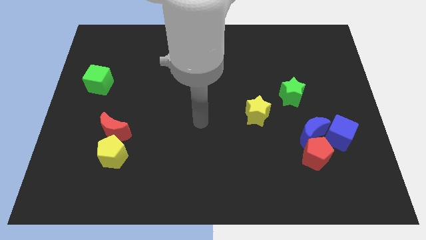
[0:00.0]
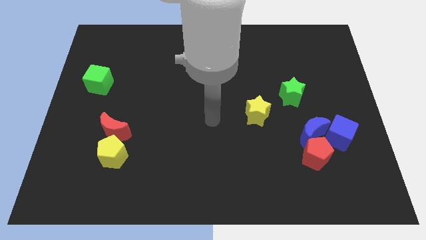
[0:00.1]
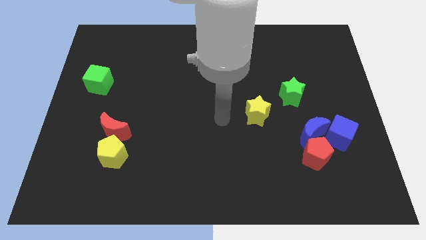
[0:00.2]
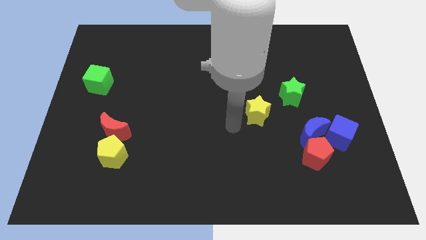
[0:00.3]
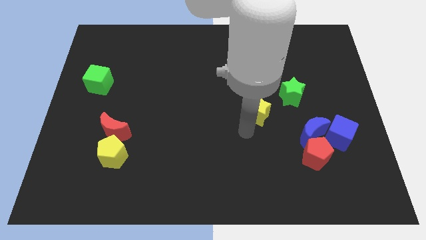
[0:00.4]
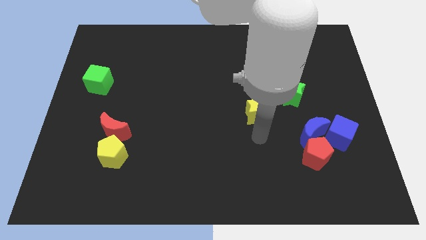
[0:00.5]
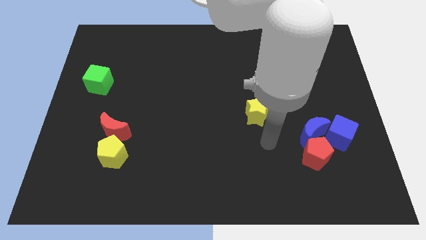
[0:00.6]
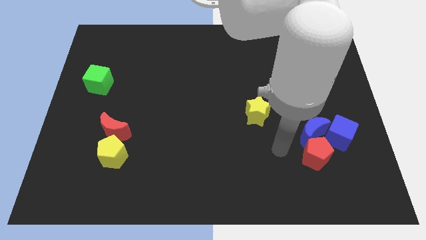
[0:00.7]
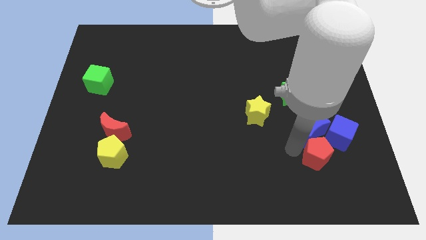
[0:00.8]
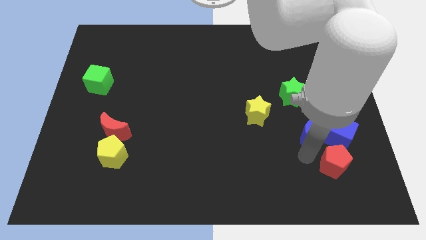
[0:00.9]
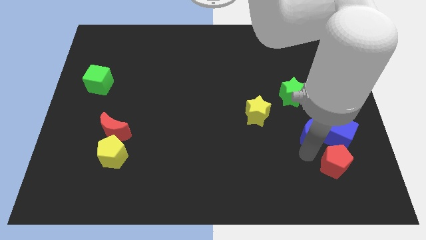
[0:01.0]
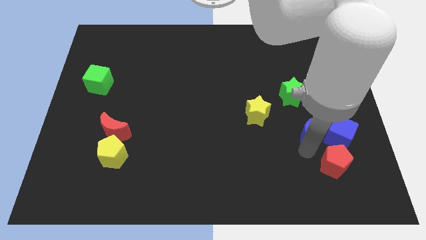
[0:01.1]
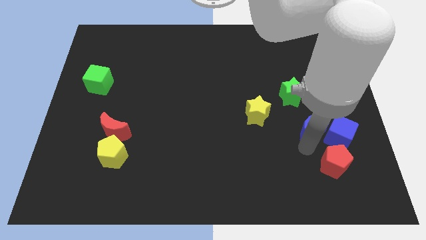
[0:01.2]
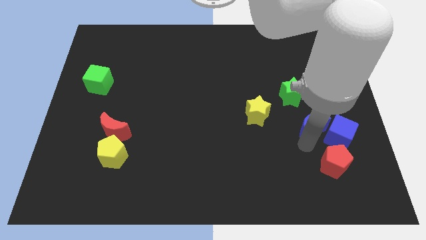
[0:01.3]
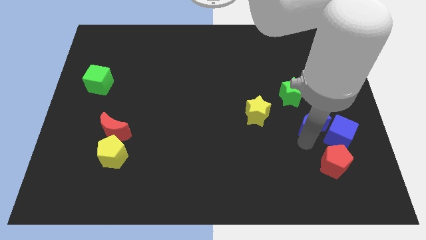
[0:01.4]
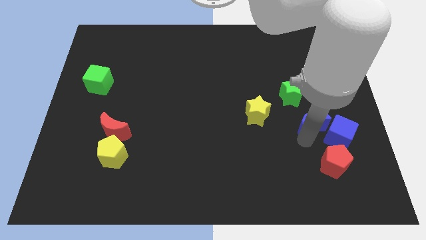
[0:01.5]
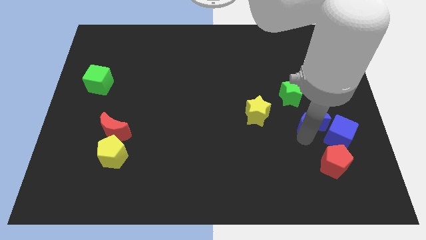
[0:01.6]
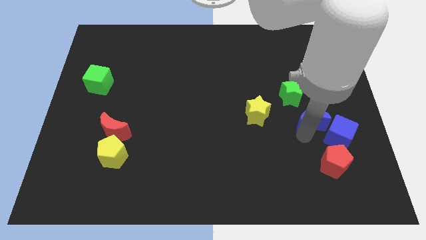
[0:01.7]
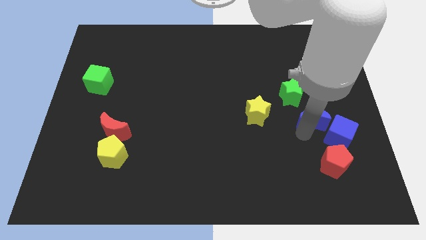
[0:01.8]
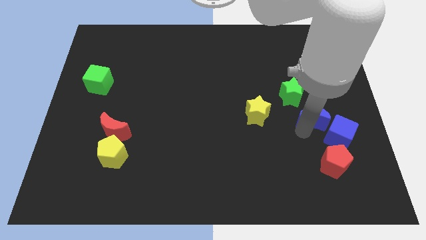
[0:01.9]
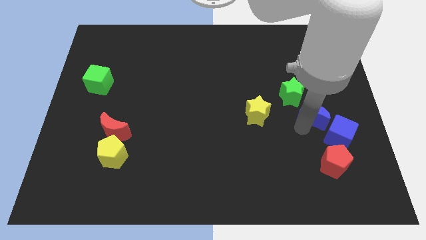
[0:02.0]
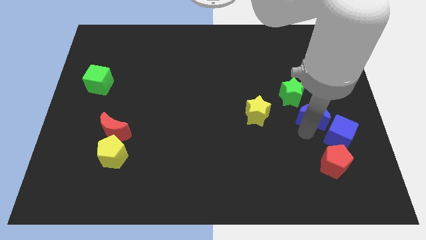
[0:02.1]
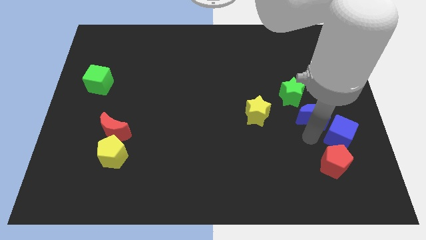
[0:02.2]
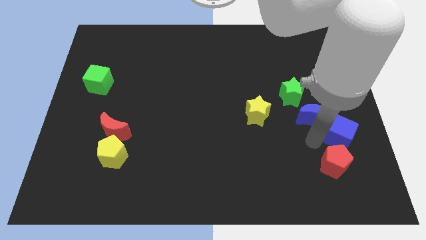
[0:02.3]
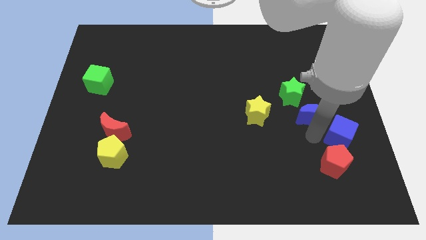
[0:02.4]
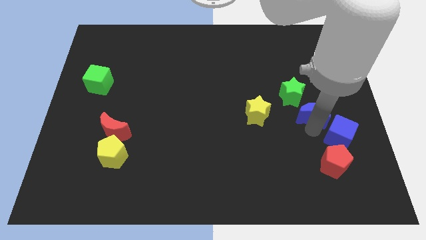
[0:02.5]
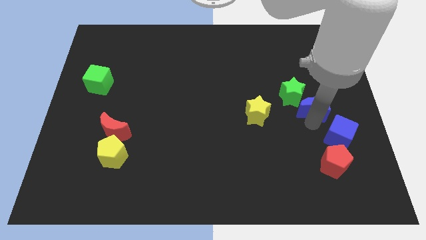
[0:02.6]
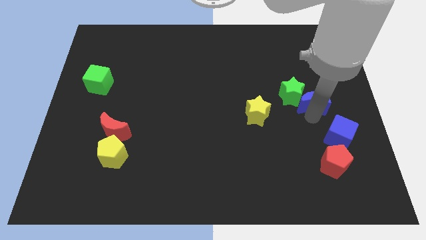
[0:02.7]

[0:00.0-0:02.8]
move the blue moon somewhat up

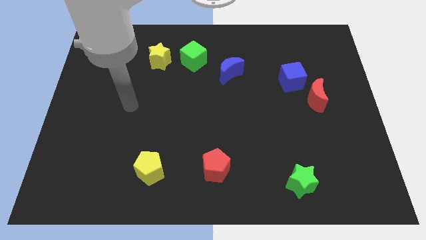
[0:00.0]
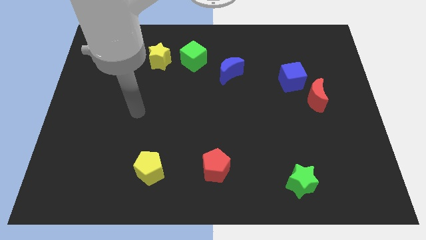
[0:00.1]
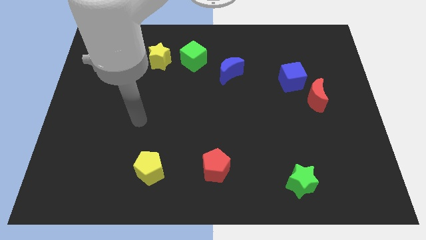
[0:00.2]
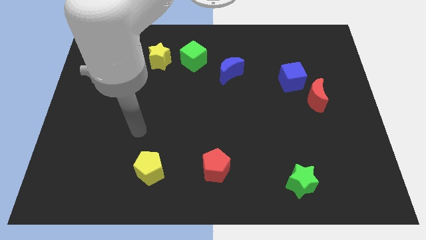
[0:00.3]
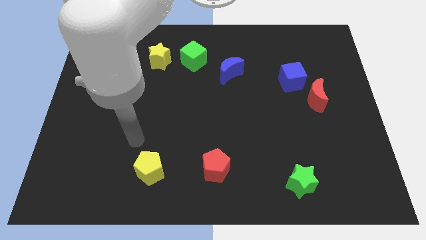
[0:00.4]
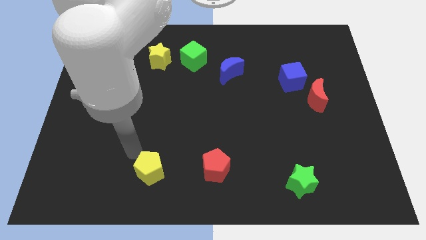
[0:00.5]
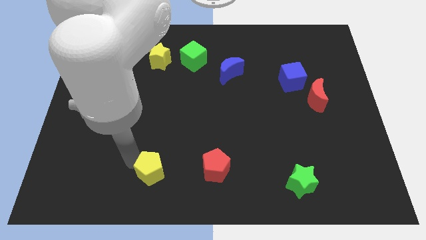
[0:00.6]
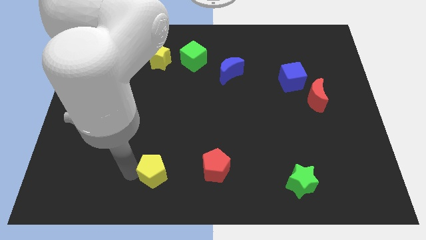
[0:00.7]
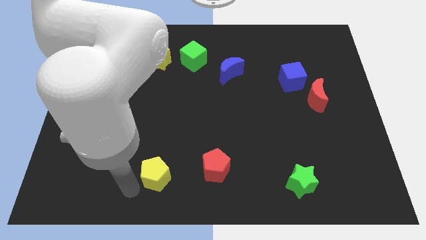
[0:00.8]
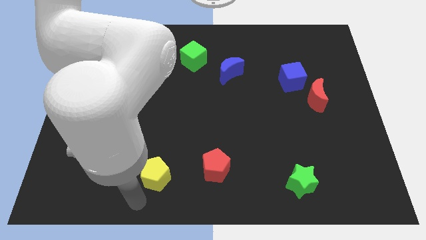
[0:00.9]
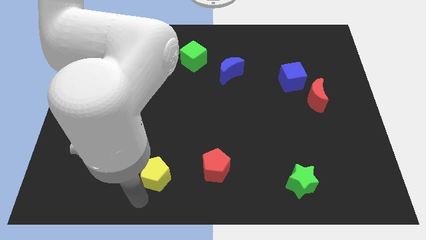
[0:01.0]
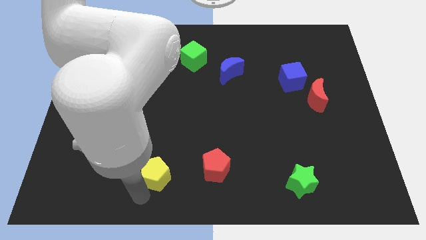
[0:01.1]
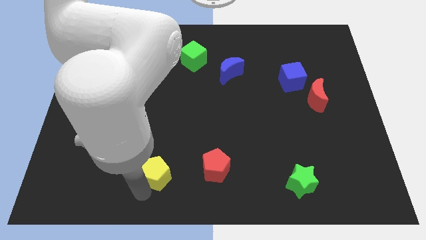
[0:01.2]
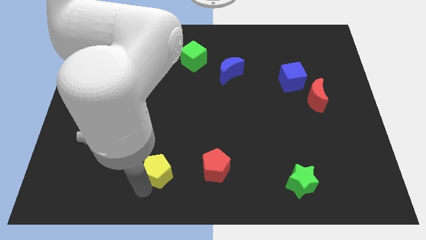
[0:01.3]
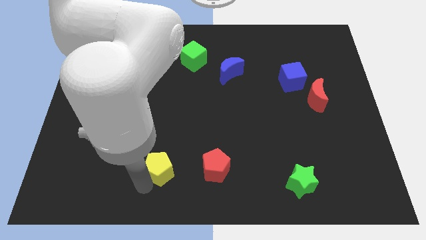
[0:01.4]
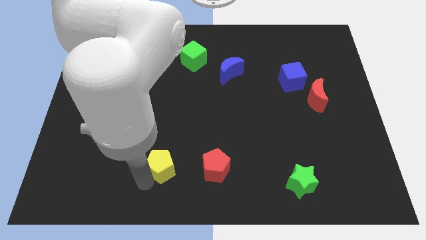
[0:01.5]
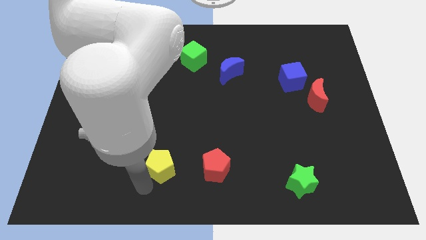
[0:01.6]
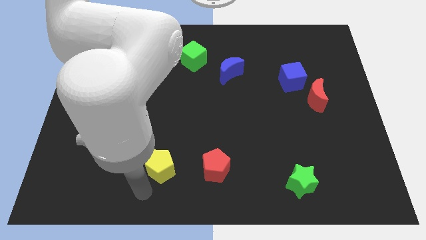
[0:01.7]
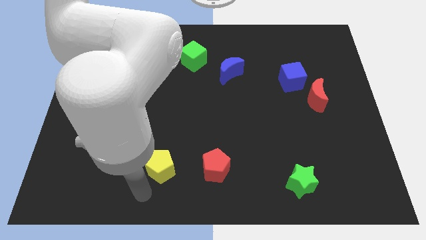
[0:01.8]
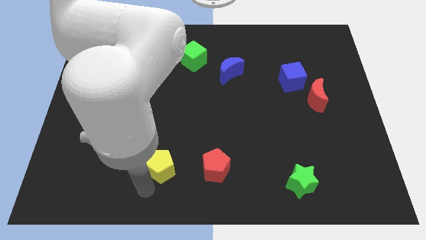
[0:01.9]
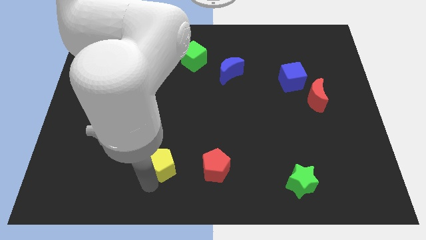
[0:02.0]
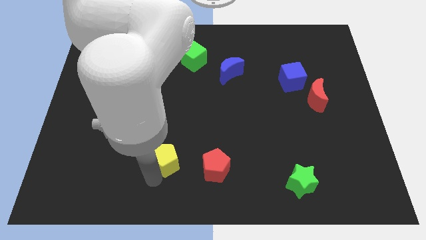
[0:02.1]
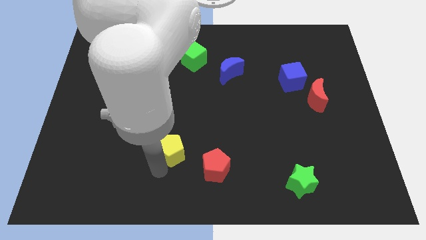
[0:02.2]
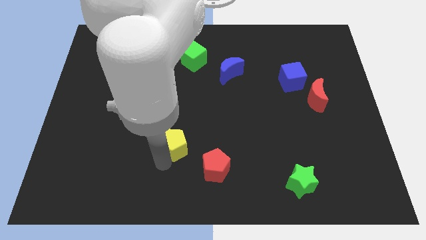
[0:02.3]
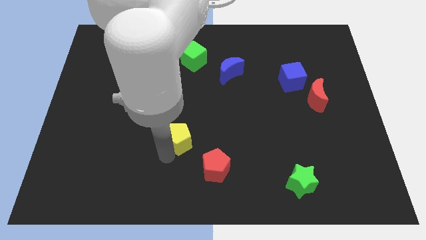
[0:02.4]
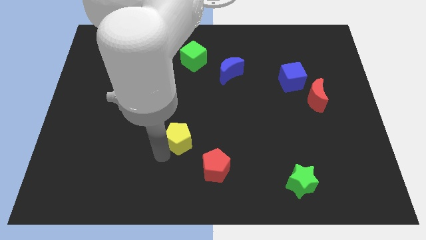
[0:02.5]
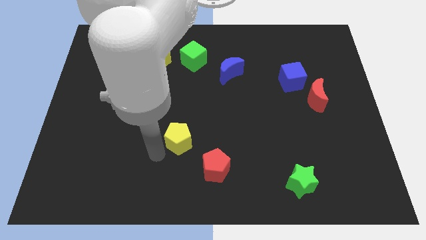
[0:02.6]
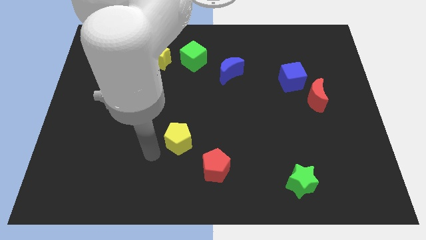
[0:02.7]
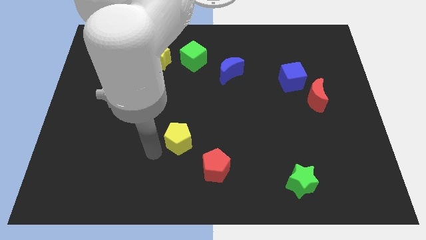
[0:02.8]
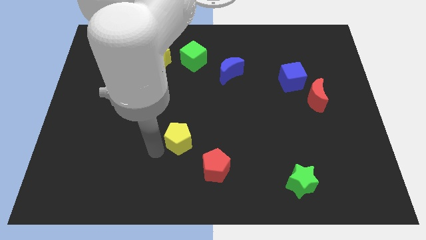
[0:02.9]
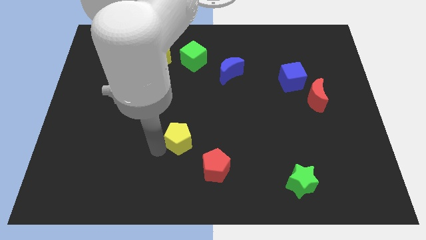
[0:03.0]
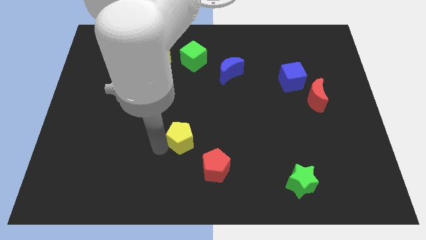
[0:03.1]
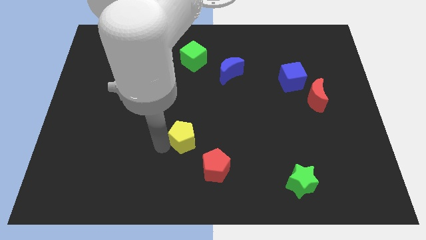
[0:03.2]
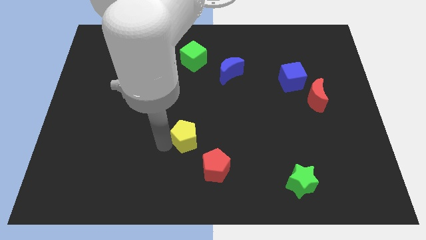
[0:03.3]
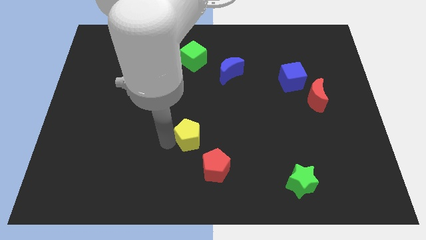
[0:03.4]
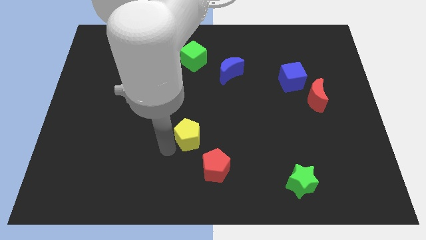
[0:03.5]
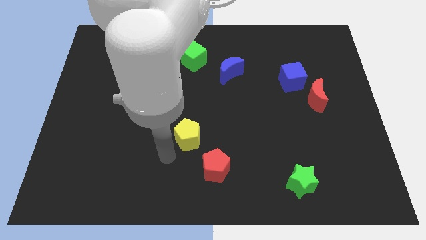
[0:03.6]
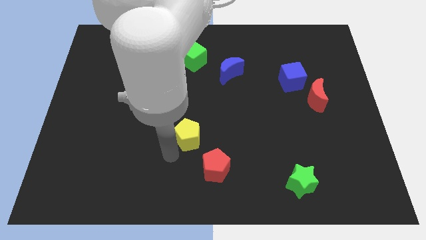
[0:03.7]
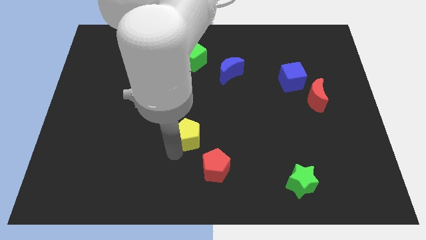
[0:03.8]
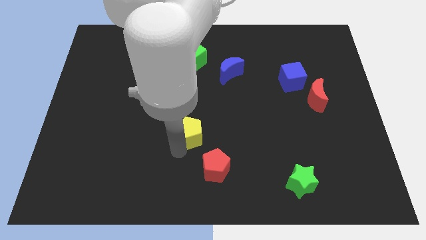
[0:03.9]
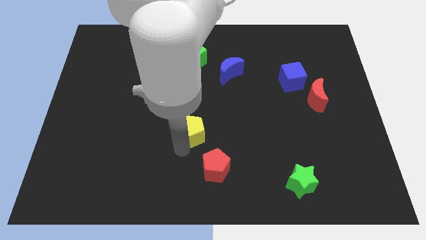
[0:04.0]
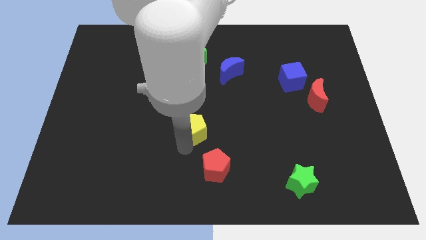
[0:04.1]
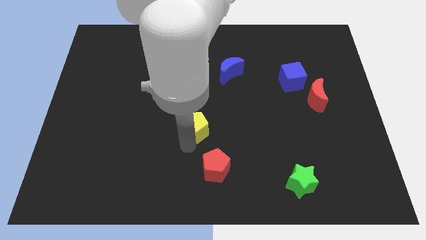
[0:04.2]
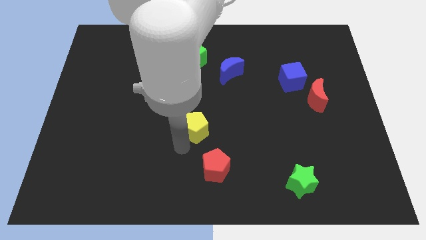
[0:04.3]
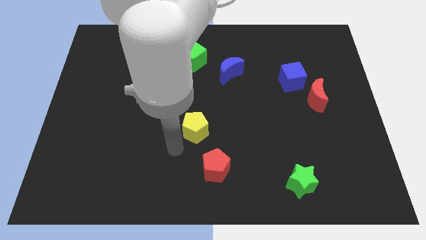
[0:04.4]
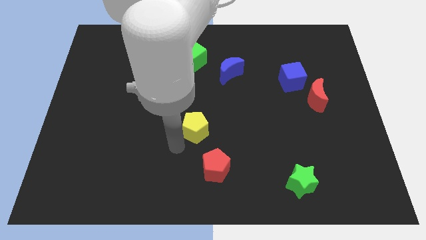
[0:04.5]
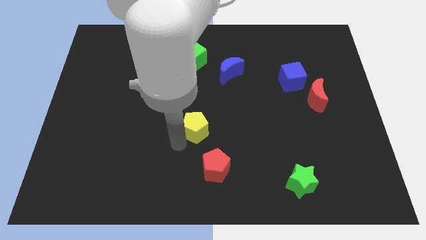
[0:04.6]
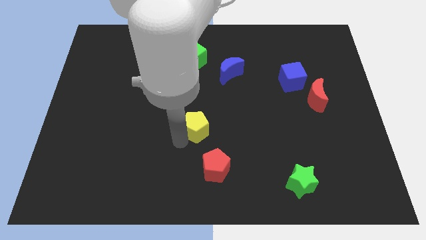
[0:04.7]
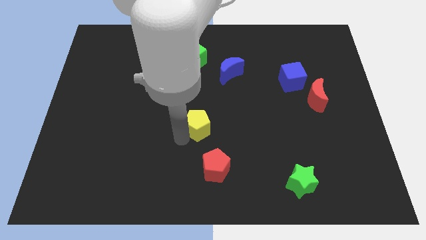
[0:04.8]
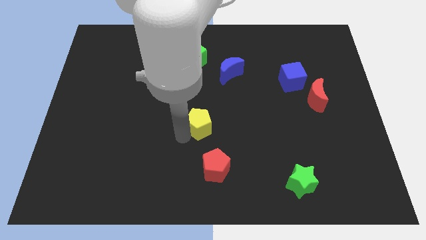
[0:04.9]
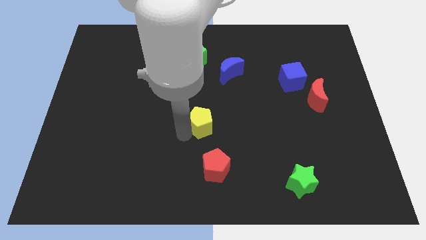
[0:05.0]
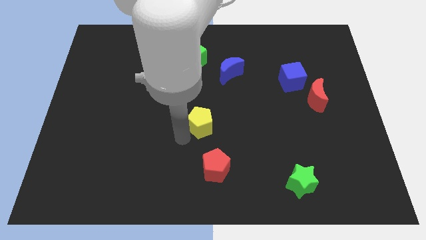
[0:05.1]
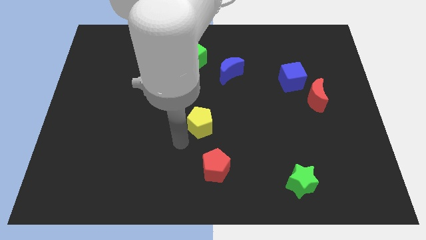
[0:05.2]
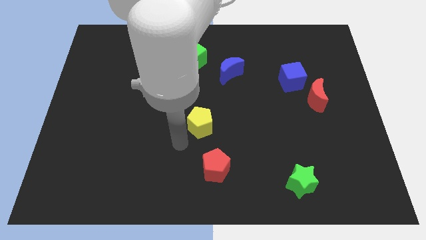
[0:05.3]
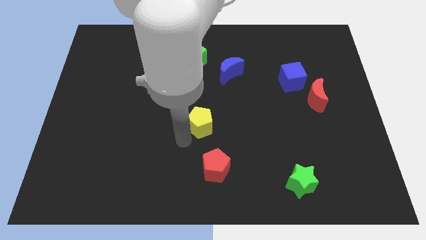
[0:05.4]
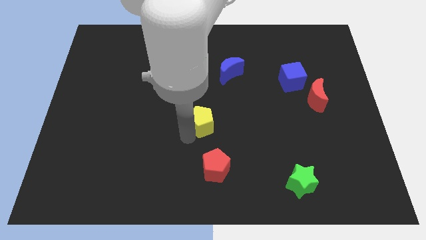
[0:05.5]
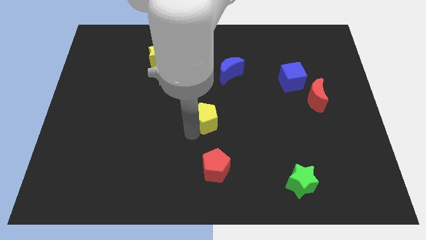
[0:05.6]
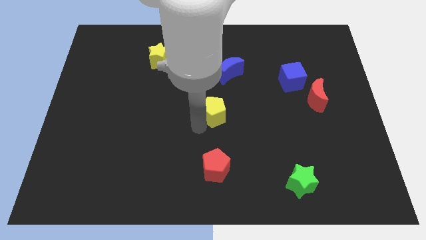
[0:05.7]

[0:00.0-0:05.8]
push the yellow pentagon upwards and right diagonally
